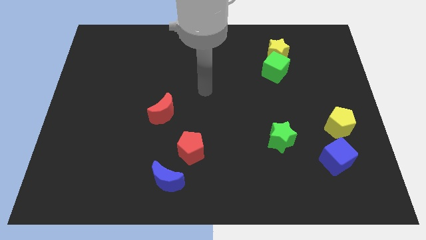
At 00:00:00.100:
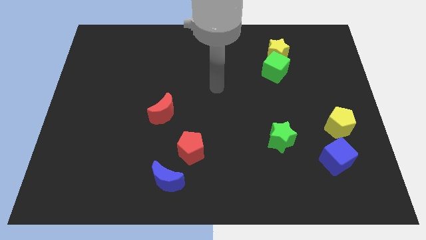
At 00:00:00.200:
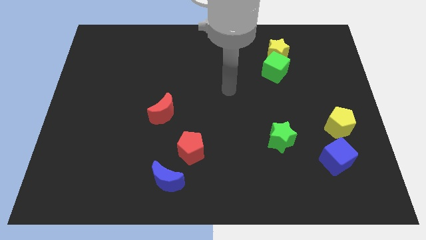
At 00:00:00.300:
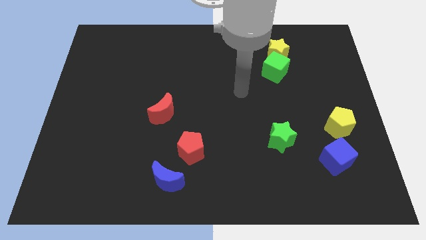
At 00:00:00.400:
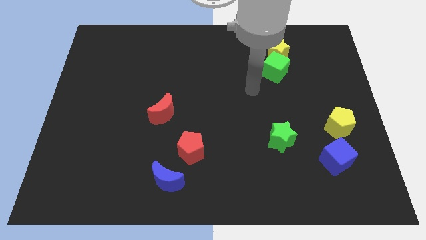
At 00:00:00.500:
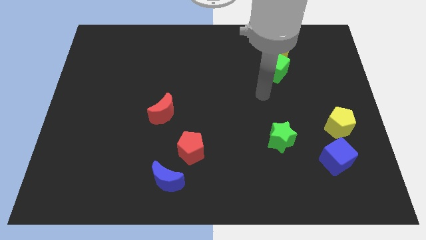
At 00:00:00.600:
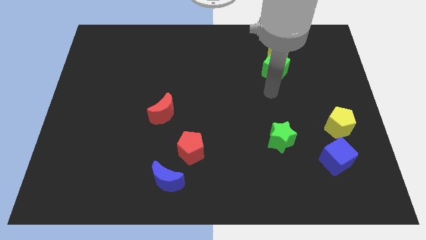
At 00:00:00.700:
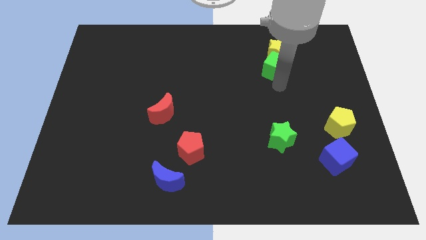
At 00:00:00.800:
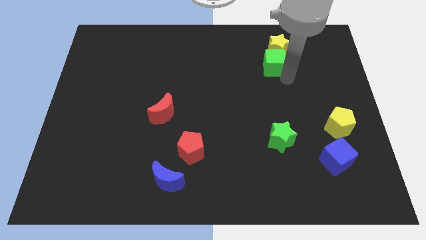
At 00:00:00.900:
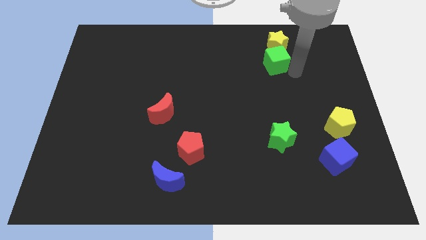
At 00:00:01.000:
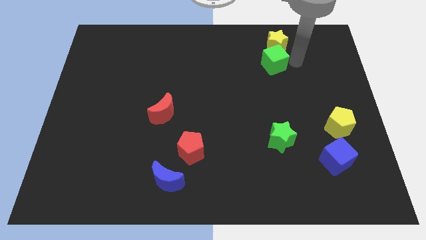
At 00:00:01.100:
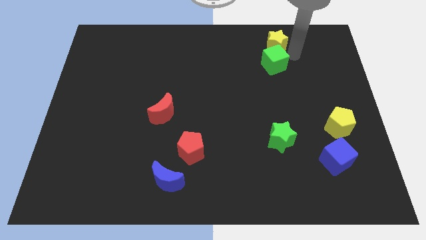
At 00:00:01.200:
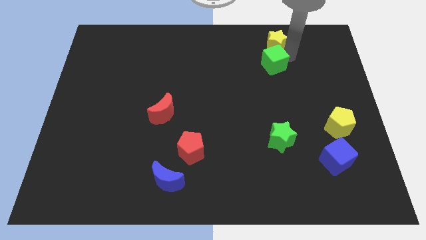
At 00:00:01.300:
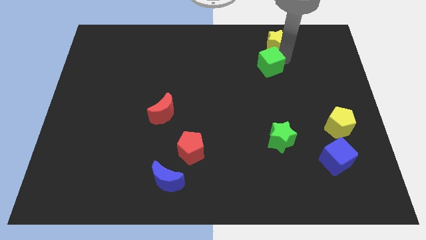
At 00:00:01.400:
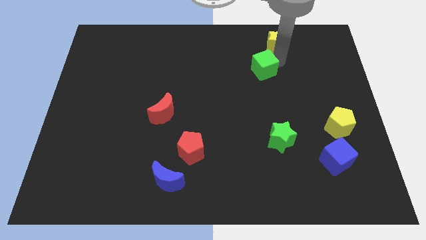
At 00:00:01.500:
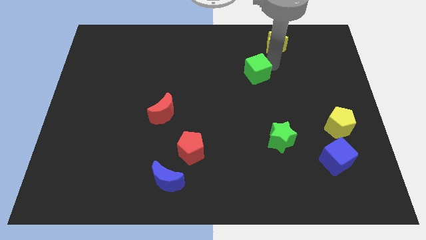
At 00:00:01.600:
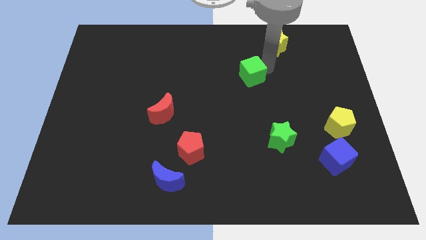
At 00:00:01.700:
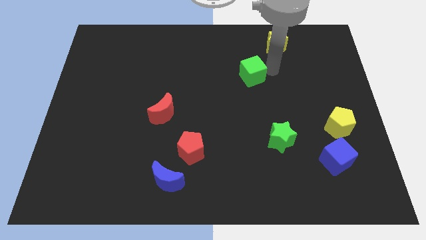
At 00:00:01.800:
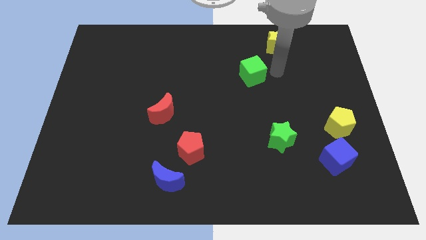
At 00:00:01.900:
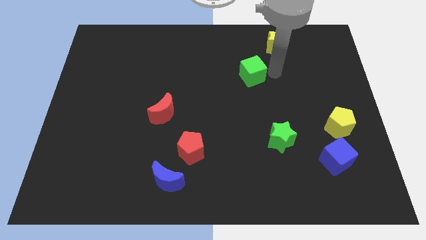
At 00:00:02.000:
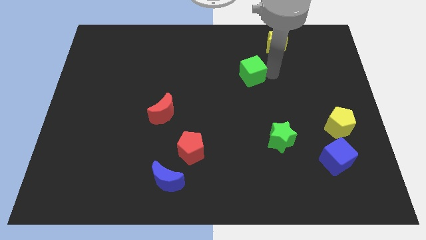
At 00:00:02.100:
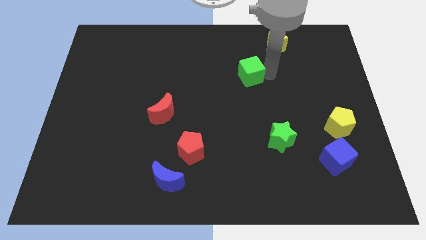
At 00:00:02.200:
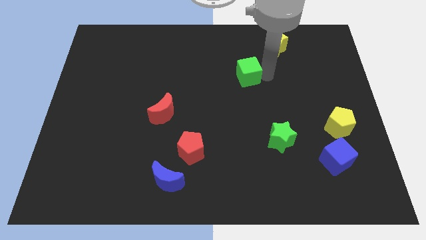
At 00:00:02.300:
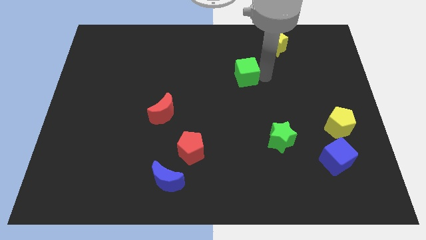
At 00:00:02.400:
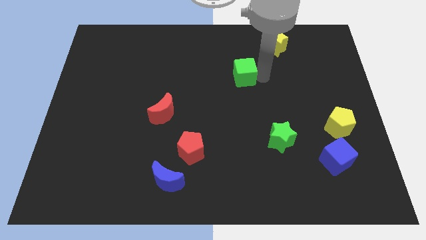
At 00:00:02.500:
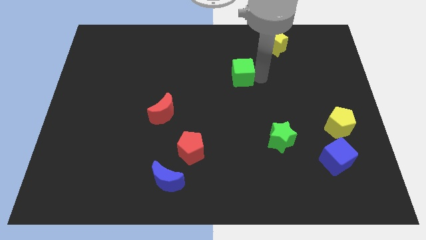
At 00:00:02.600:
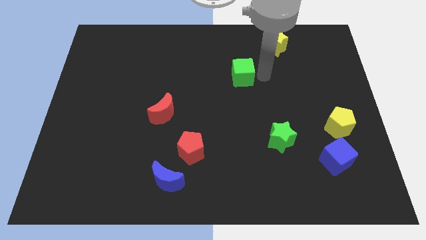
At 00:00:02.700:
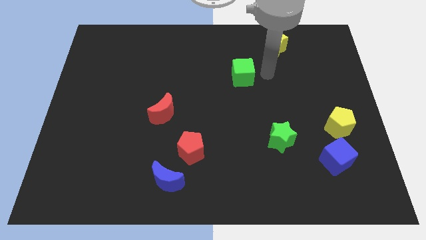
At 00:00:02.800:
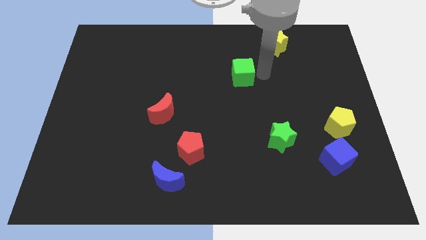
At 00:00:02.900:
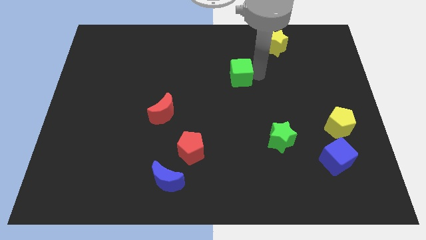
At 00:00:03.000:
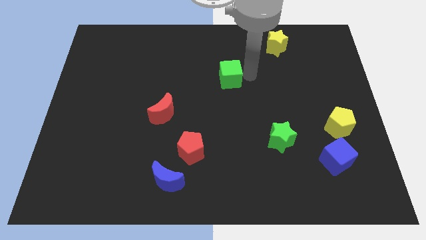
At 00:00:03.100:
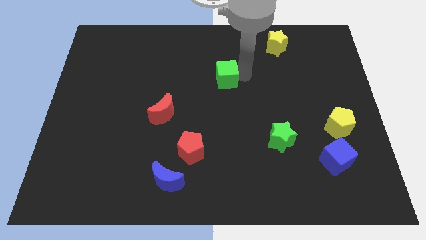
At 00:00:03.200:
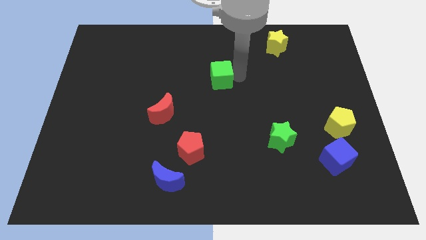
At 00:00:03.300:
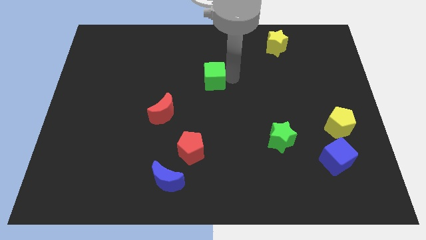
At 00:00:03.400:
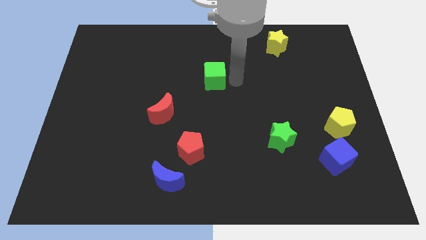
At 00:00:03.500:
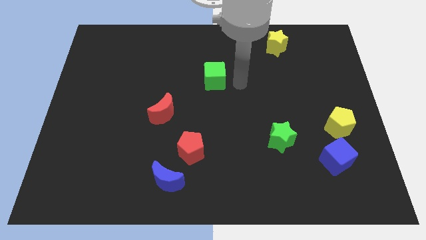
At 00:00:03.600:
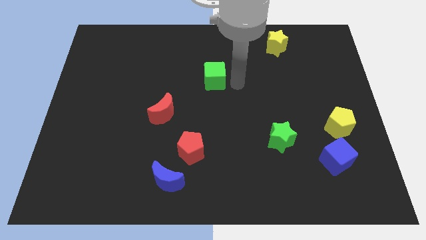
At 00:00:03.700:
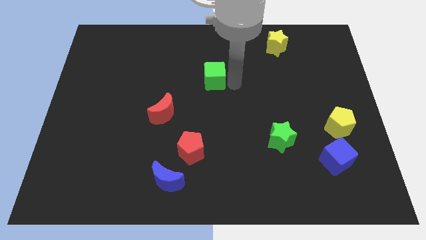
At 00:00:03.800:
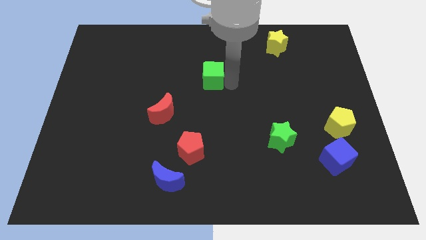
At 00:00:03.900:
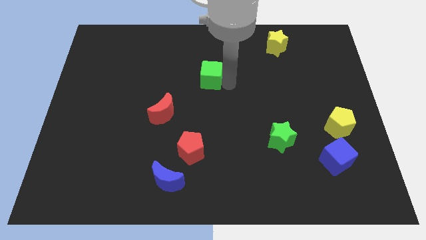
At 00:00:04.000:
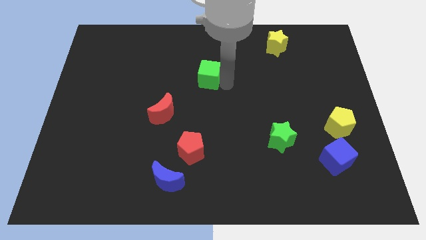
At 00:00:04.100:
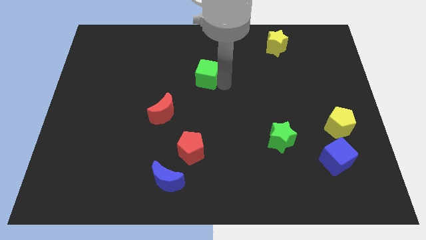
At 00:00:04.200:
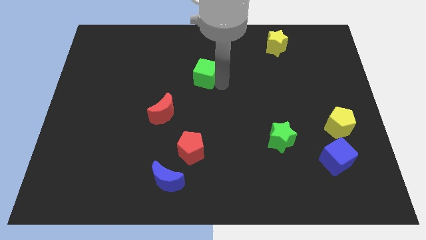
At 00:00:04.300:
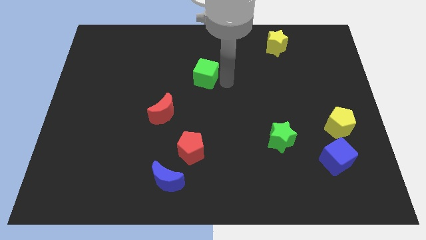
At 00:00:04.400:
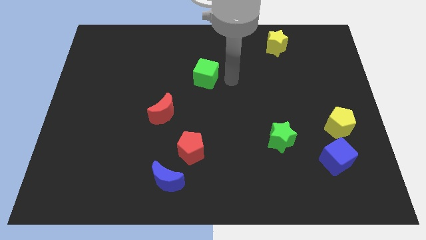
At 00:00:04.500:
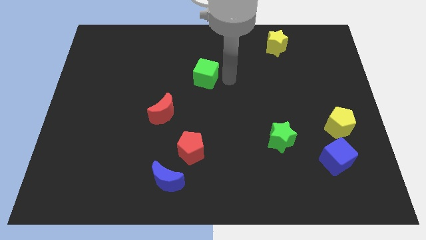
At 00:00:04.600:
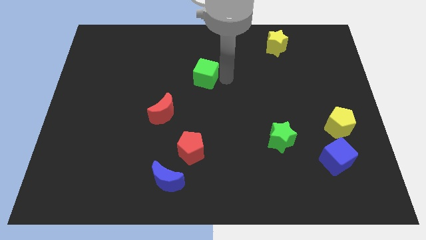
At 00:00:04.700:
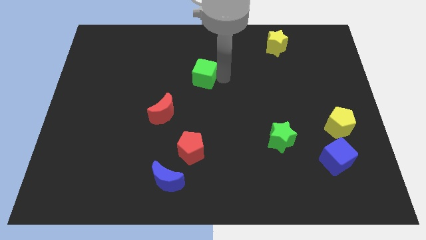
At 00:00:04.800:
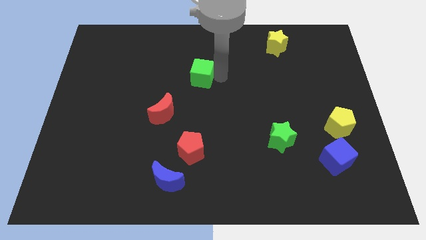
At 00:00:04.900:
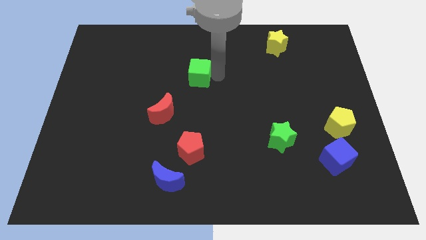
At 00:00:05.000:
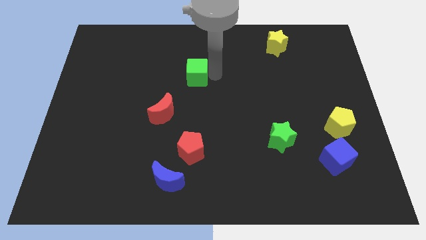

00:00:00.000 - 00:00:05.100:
slide the green cube left

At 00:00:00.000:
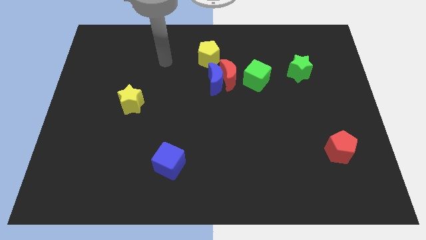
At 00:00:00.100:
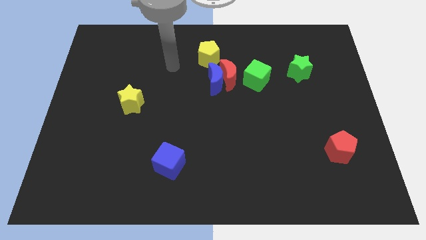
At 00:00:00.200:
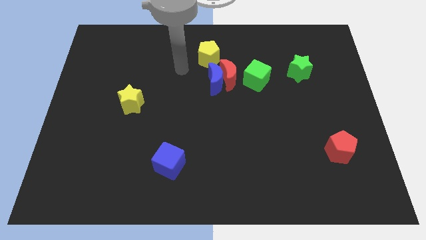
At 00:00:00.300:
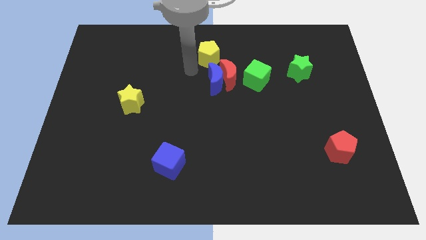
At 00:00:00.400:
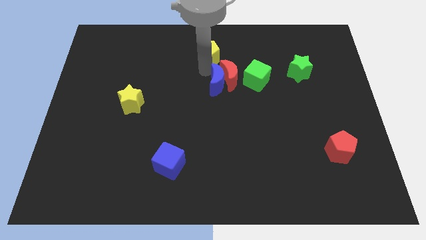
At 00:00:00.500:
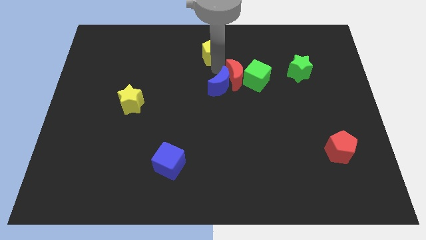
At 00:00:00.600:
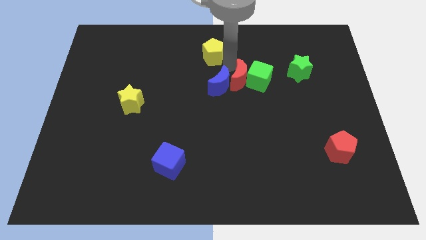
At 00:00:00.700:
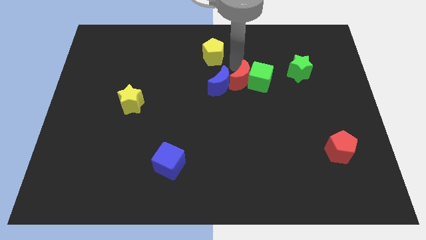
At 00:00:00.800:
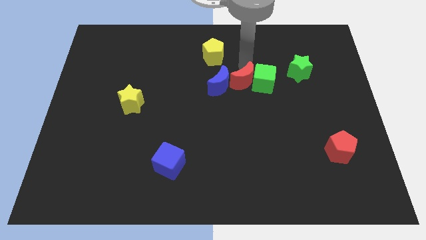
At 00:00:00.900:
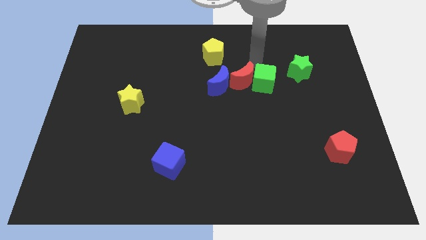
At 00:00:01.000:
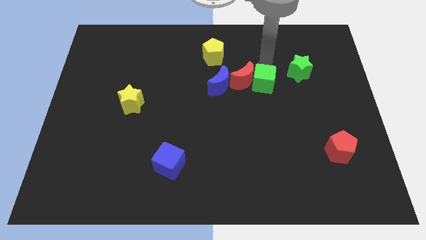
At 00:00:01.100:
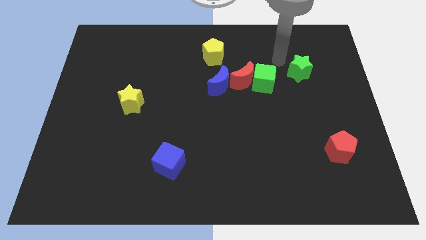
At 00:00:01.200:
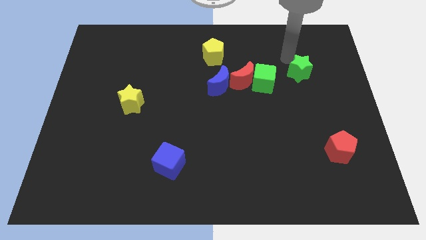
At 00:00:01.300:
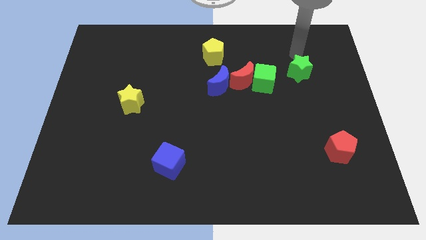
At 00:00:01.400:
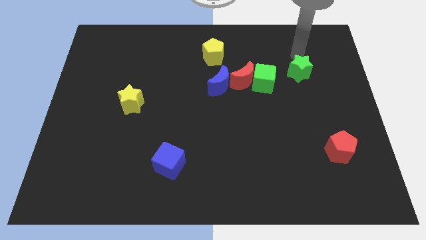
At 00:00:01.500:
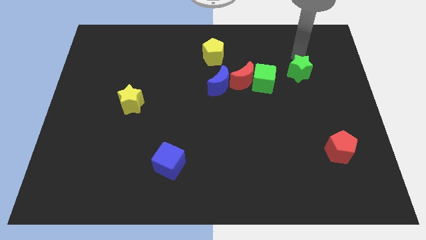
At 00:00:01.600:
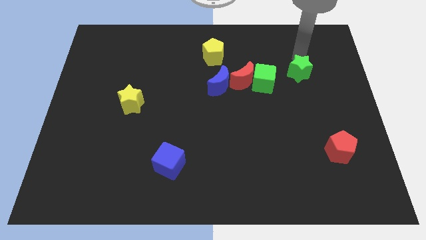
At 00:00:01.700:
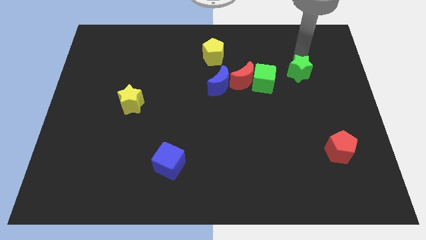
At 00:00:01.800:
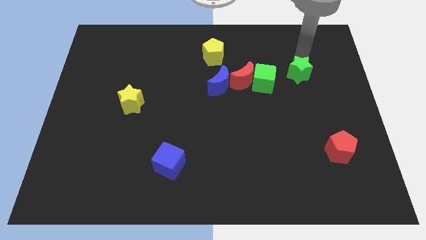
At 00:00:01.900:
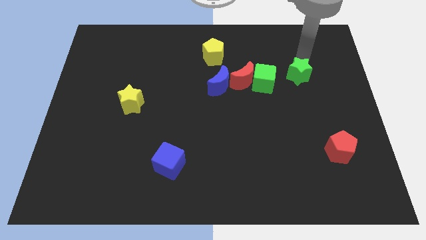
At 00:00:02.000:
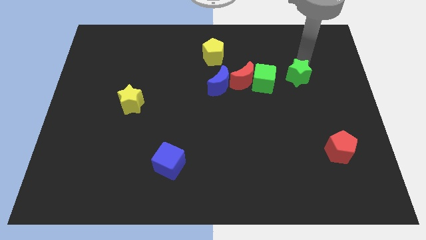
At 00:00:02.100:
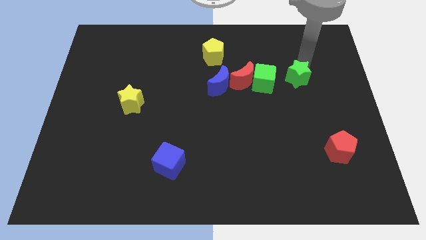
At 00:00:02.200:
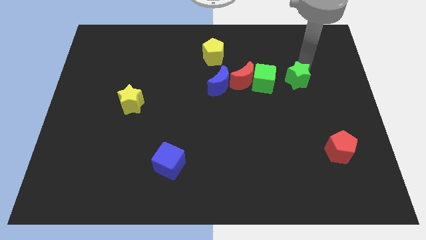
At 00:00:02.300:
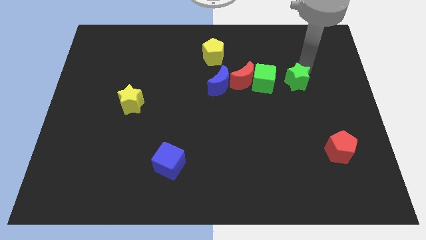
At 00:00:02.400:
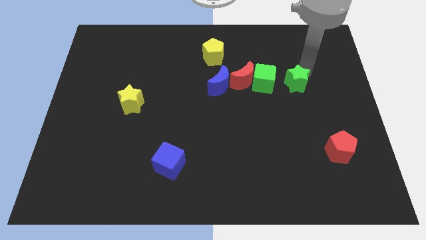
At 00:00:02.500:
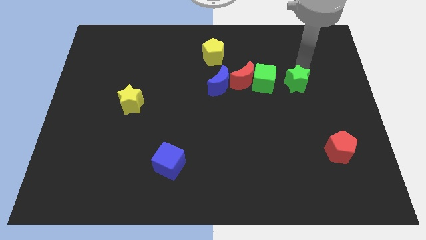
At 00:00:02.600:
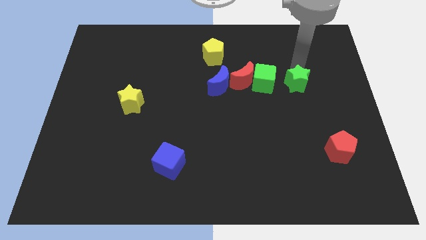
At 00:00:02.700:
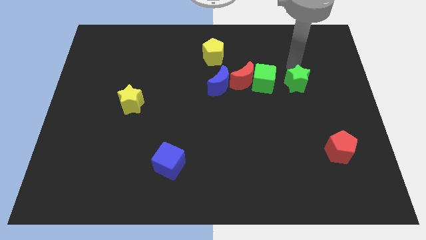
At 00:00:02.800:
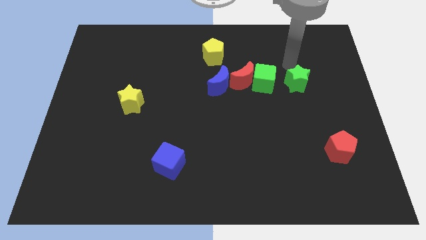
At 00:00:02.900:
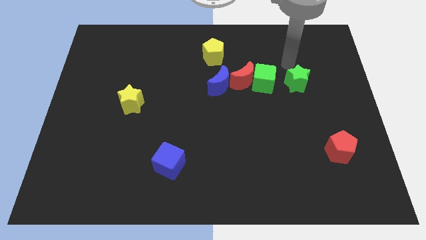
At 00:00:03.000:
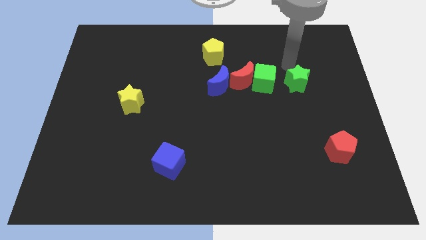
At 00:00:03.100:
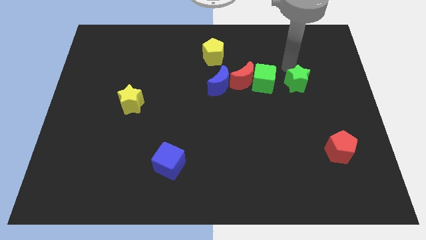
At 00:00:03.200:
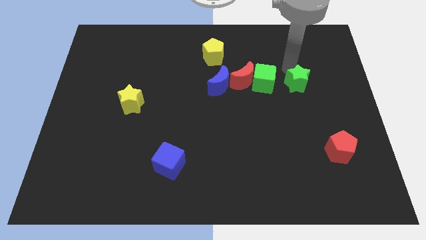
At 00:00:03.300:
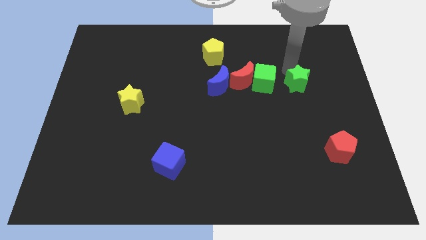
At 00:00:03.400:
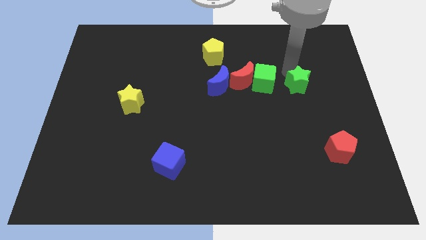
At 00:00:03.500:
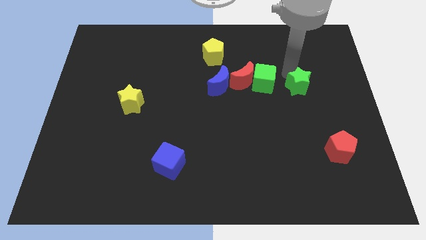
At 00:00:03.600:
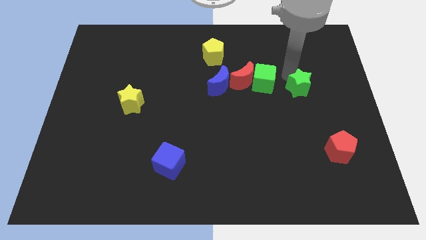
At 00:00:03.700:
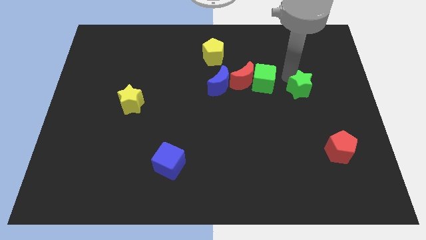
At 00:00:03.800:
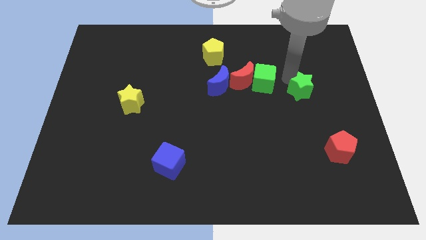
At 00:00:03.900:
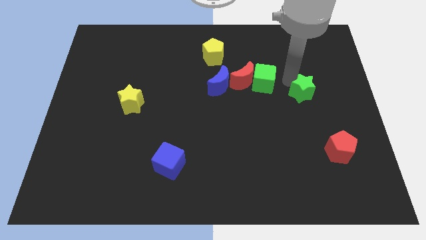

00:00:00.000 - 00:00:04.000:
slide the green star a bit down
